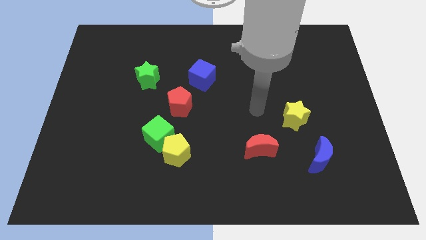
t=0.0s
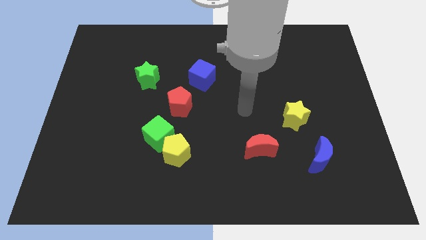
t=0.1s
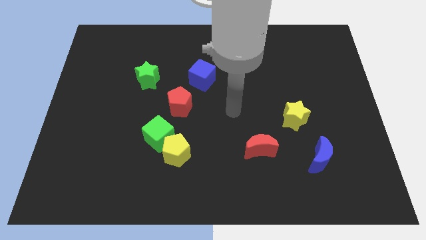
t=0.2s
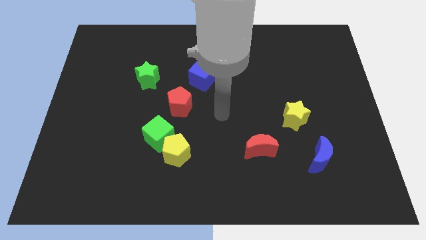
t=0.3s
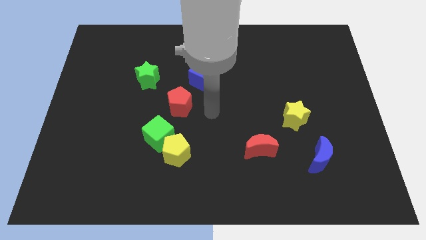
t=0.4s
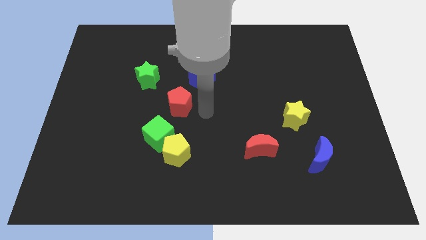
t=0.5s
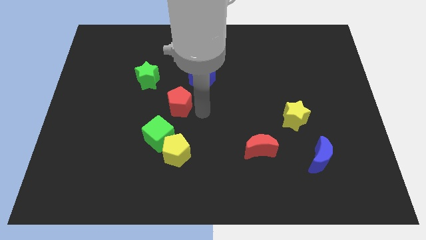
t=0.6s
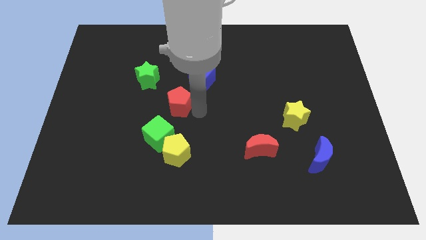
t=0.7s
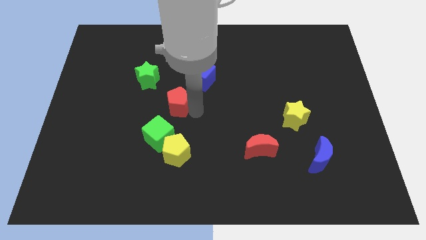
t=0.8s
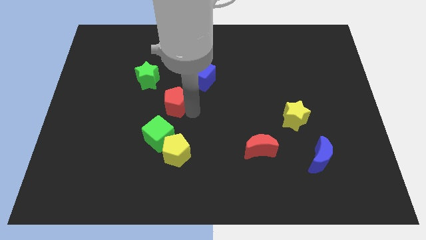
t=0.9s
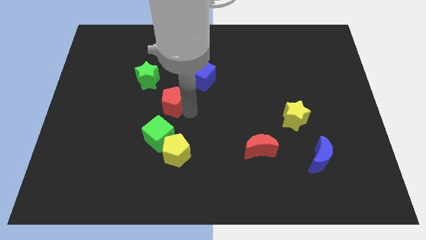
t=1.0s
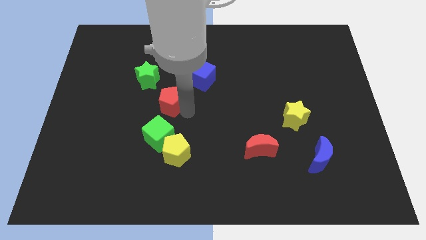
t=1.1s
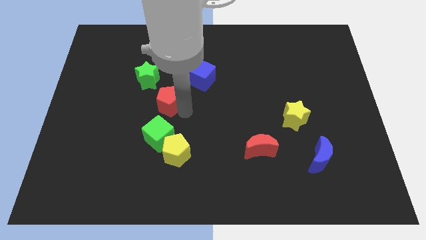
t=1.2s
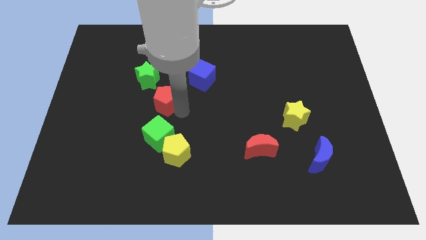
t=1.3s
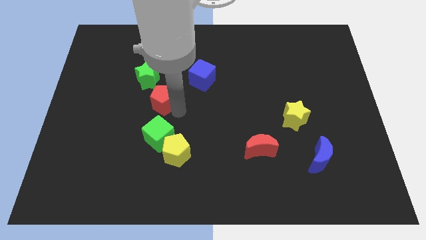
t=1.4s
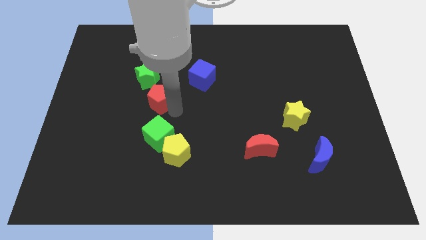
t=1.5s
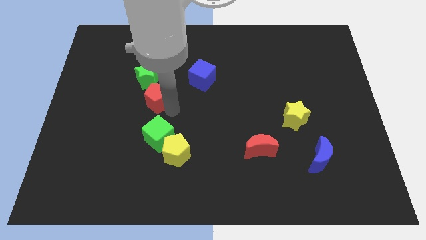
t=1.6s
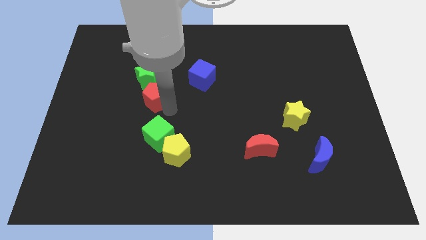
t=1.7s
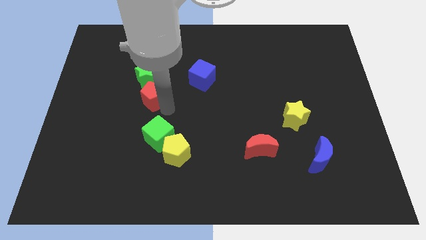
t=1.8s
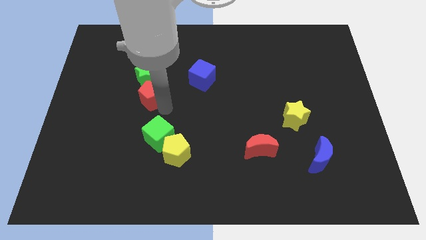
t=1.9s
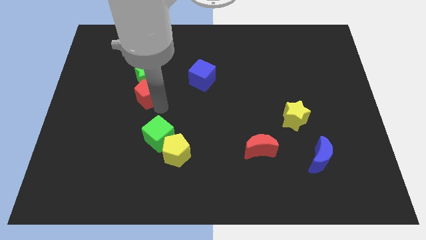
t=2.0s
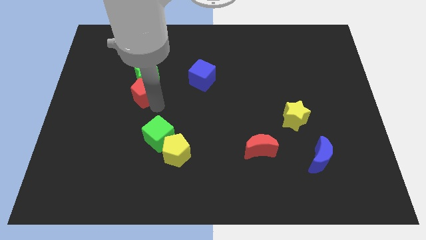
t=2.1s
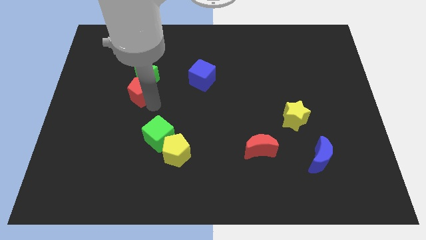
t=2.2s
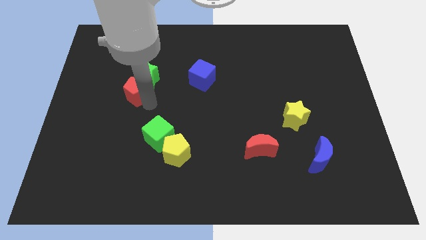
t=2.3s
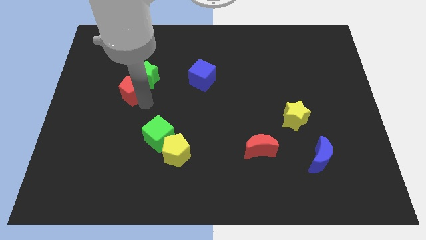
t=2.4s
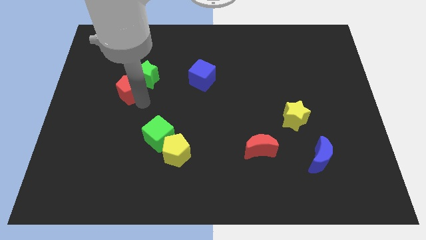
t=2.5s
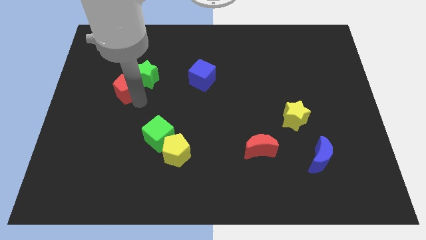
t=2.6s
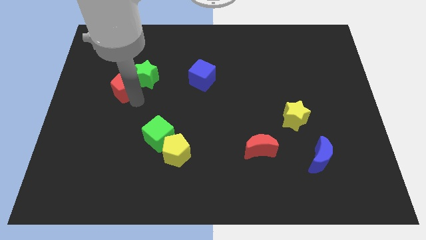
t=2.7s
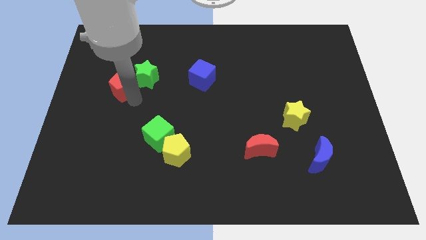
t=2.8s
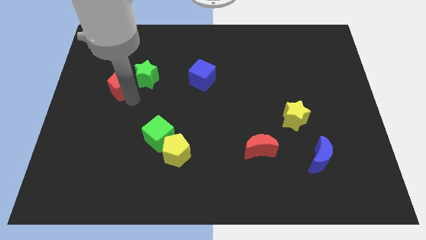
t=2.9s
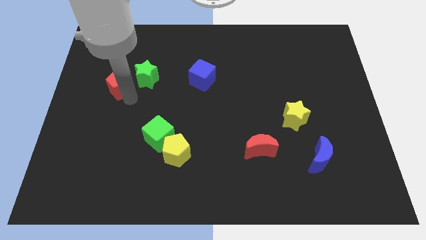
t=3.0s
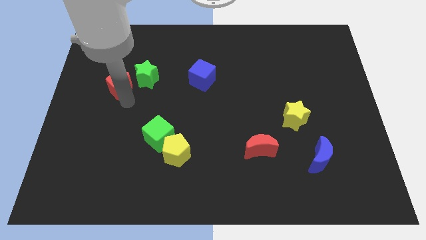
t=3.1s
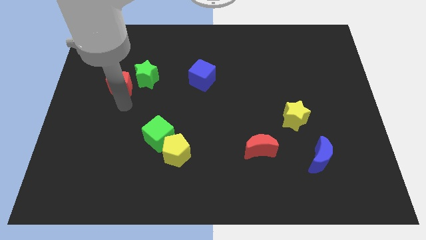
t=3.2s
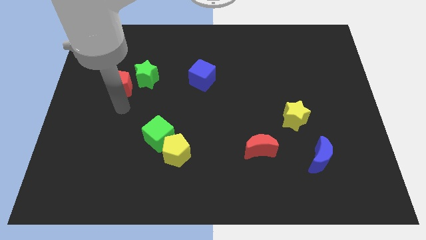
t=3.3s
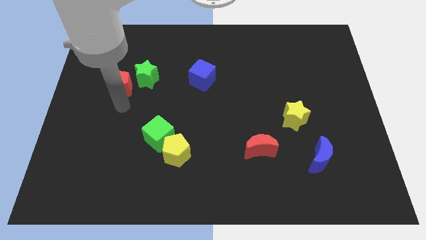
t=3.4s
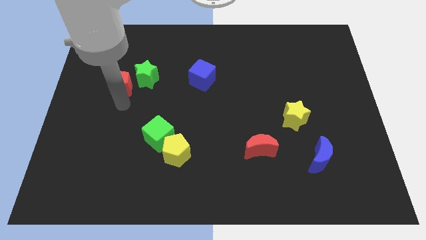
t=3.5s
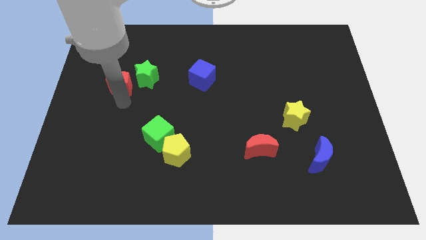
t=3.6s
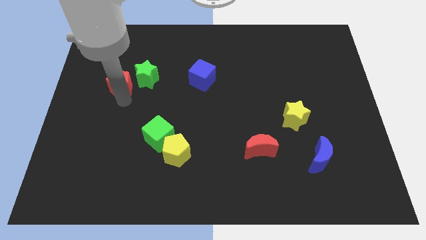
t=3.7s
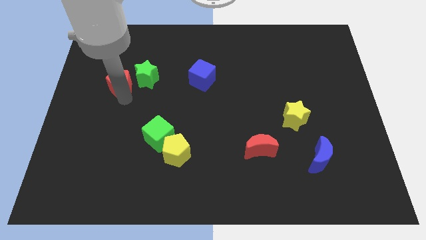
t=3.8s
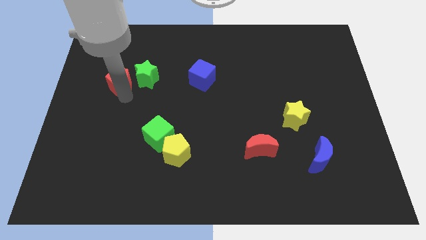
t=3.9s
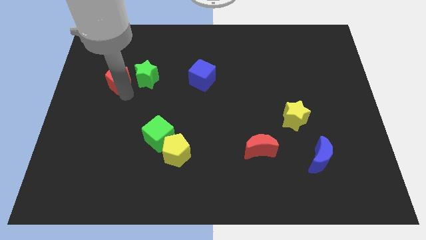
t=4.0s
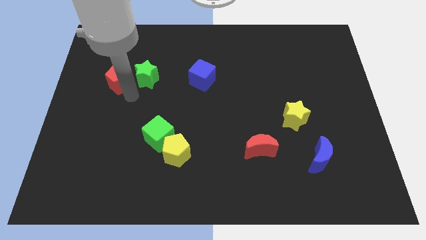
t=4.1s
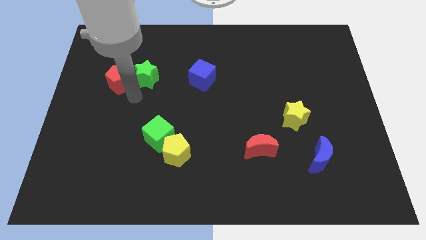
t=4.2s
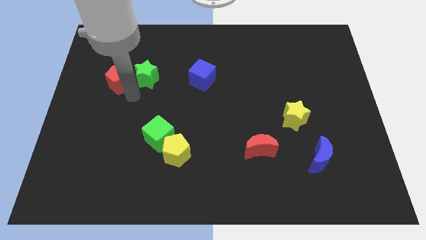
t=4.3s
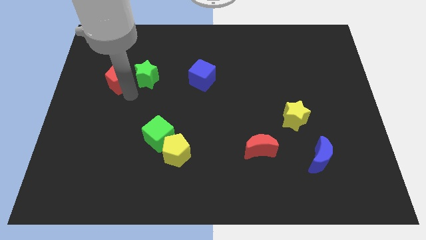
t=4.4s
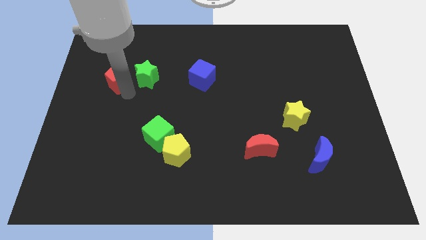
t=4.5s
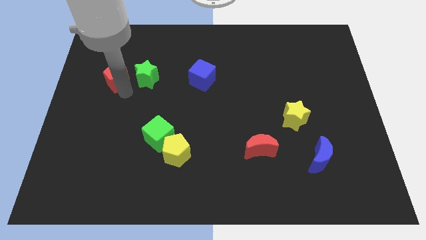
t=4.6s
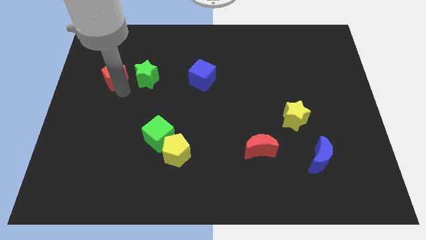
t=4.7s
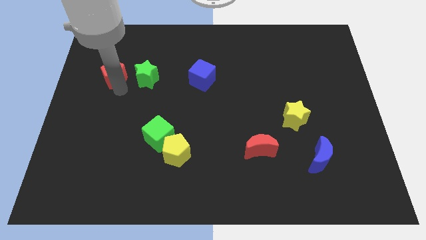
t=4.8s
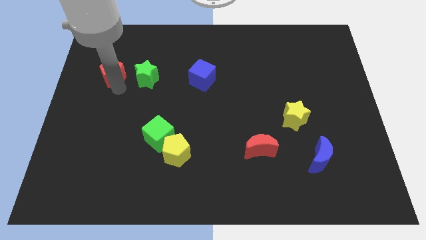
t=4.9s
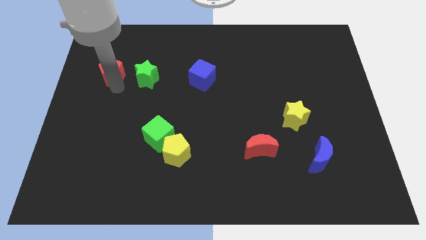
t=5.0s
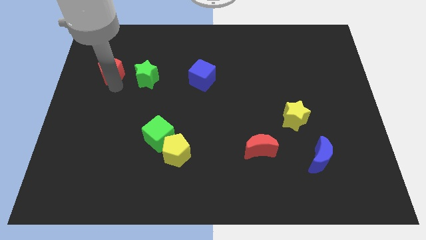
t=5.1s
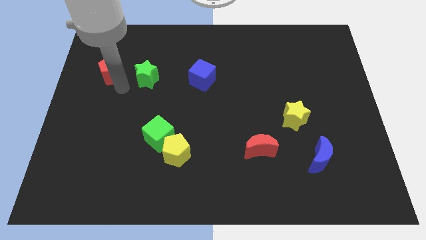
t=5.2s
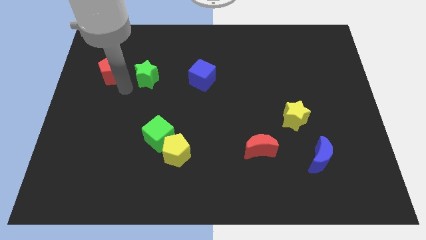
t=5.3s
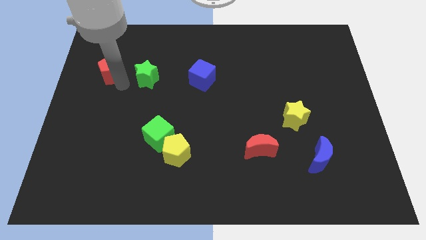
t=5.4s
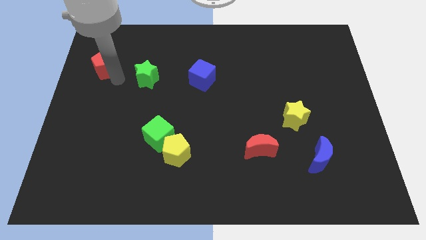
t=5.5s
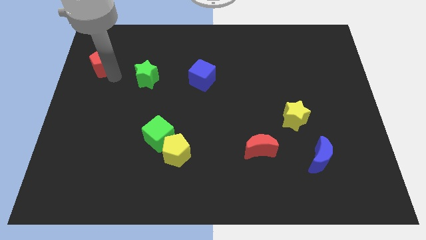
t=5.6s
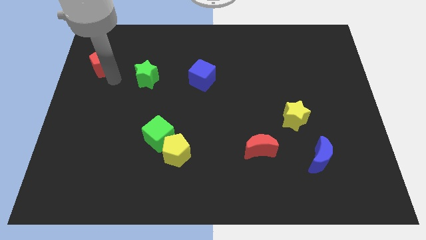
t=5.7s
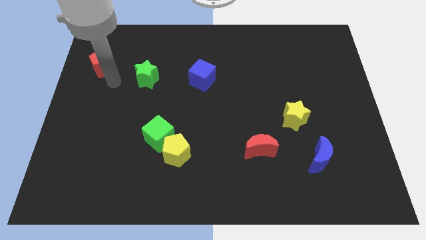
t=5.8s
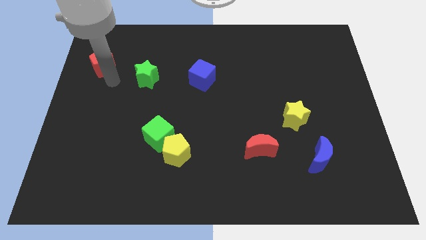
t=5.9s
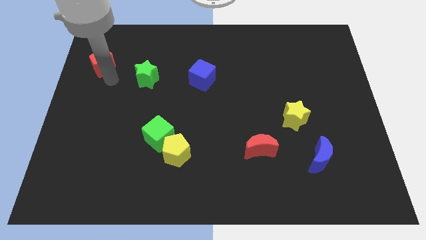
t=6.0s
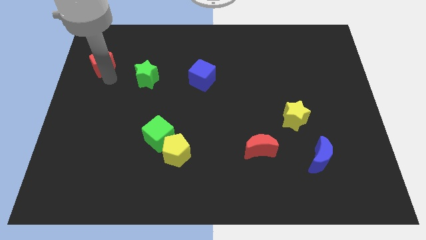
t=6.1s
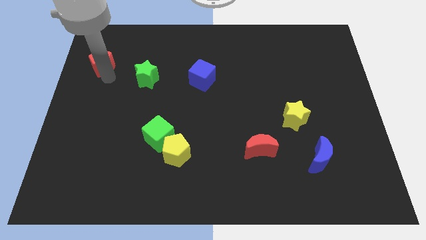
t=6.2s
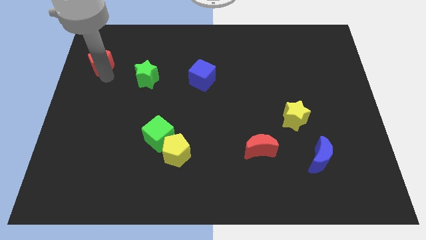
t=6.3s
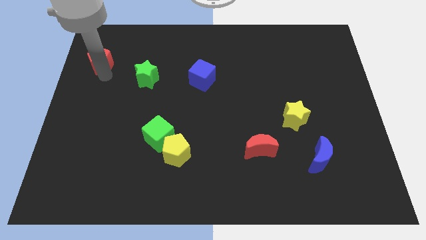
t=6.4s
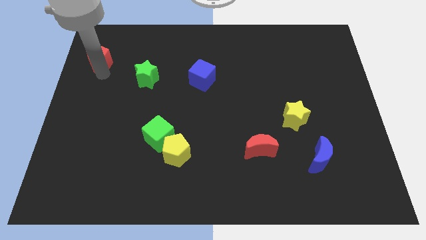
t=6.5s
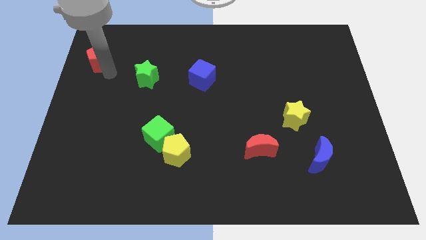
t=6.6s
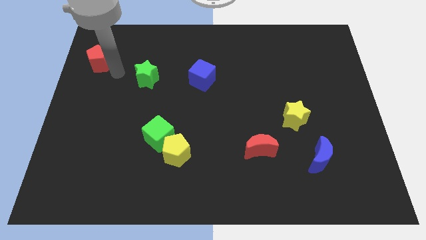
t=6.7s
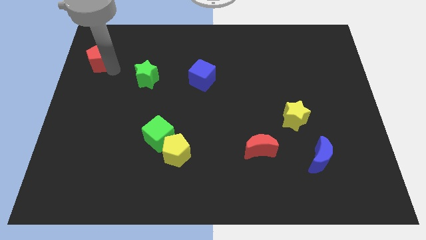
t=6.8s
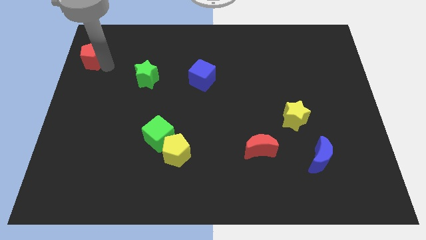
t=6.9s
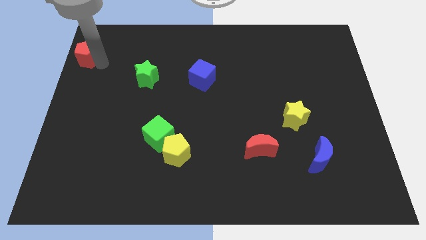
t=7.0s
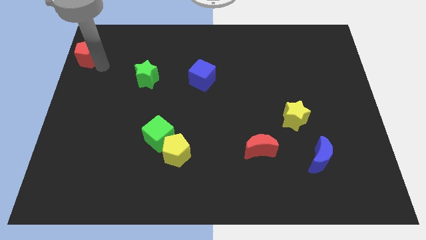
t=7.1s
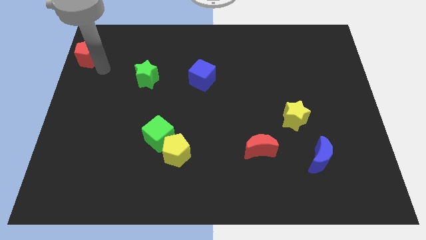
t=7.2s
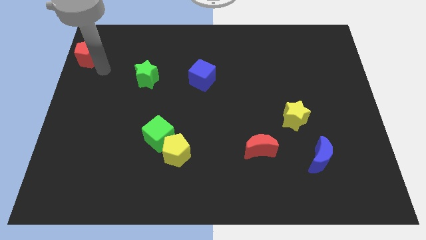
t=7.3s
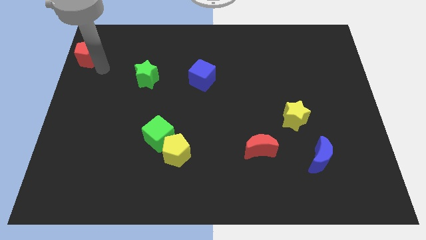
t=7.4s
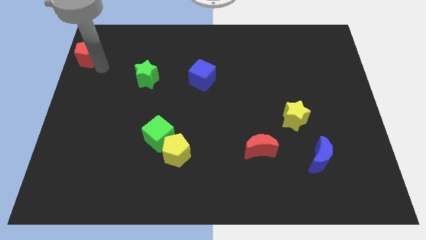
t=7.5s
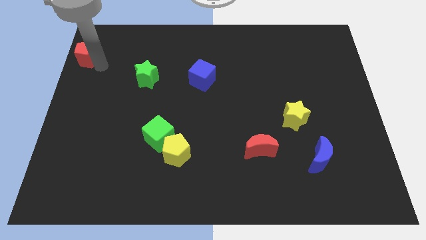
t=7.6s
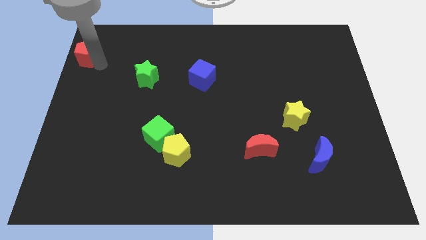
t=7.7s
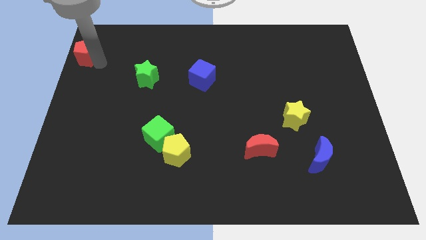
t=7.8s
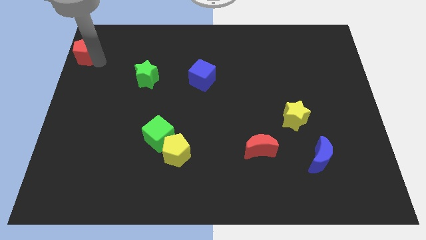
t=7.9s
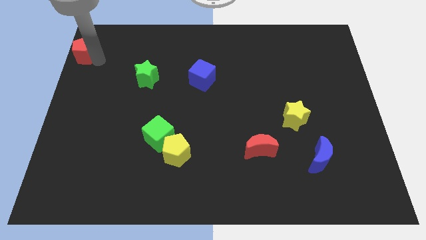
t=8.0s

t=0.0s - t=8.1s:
push the red pentagon to the top left of the board
